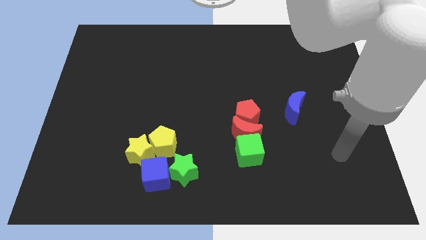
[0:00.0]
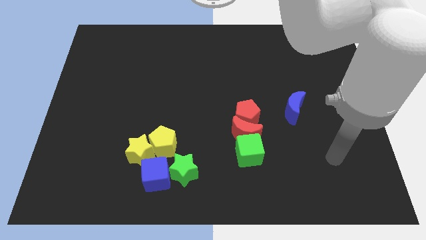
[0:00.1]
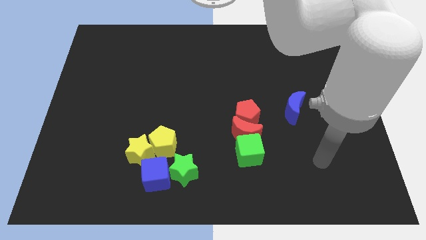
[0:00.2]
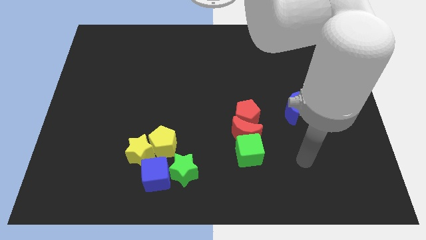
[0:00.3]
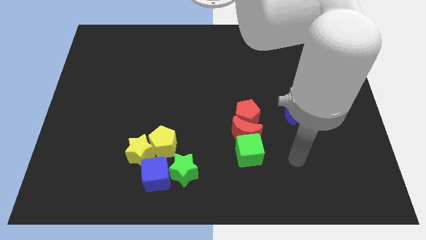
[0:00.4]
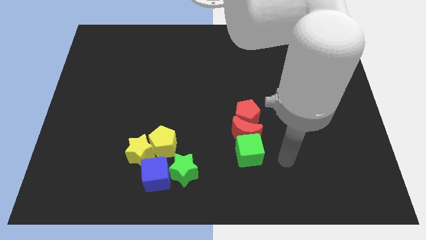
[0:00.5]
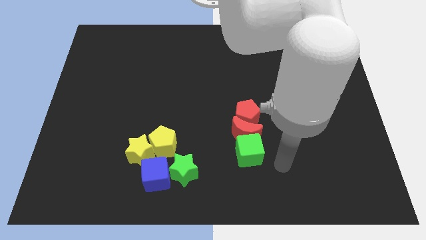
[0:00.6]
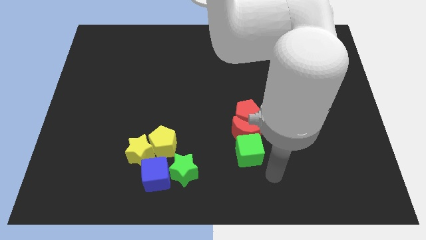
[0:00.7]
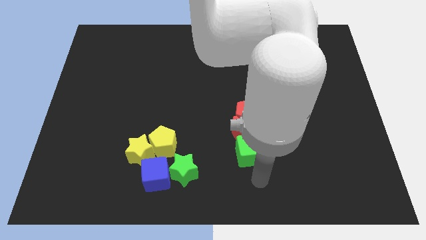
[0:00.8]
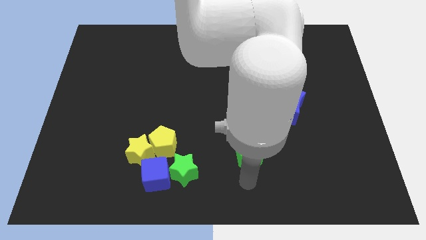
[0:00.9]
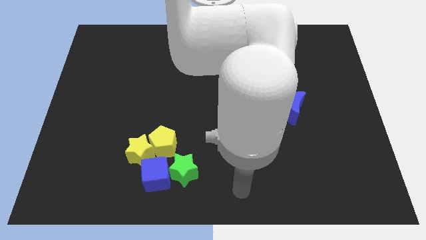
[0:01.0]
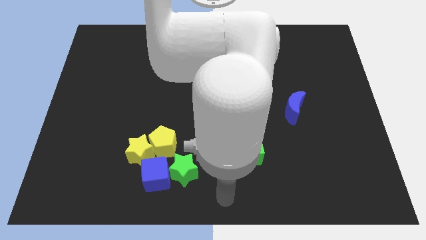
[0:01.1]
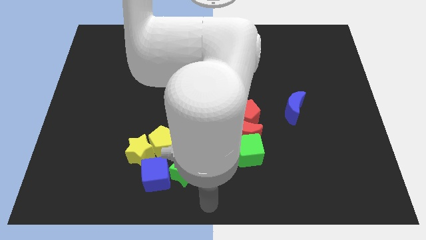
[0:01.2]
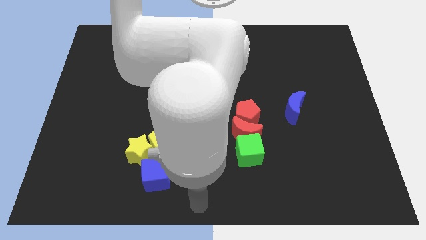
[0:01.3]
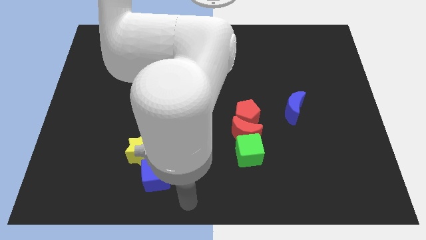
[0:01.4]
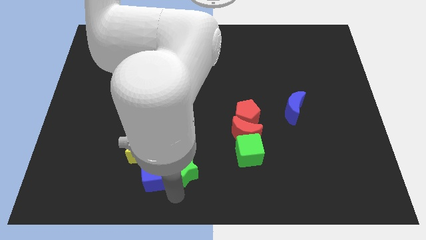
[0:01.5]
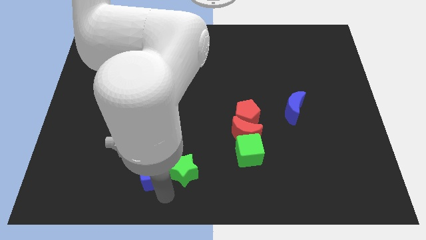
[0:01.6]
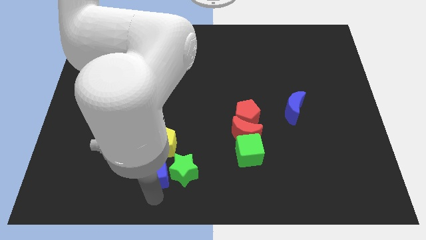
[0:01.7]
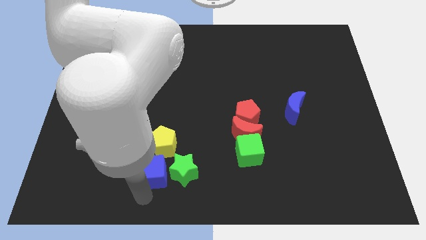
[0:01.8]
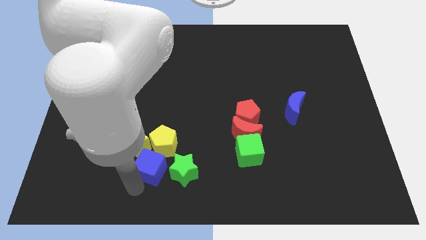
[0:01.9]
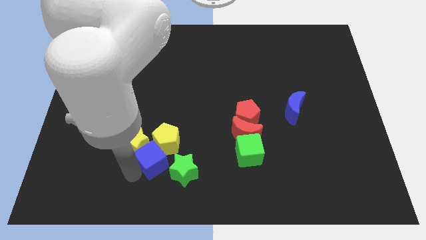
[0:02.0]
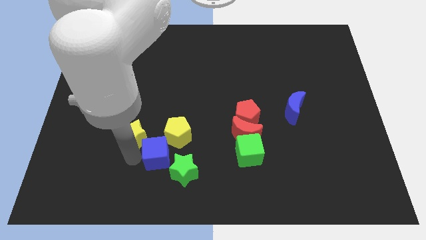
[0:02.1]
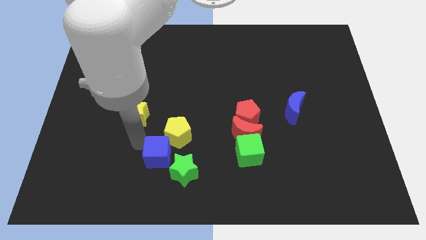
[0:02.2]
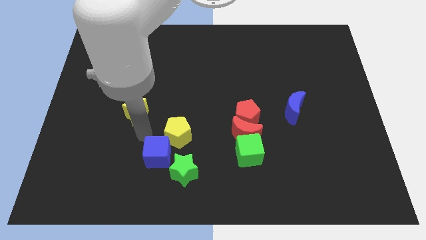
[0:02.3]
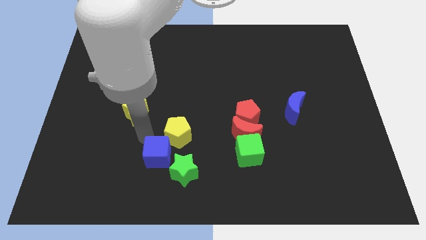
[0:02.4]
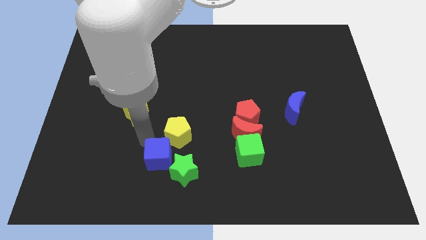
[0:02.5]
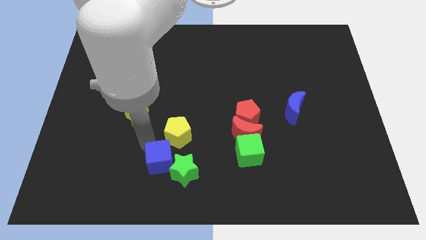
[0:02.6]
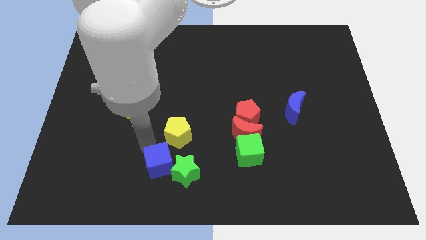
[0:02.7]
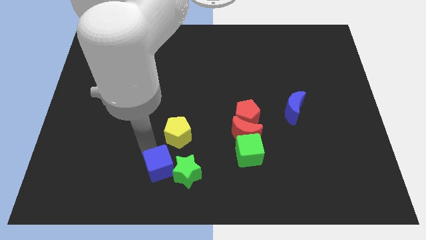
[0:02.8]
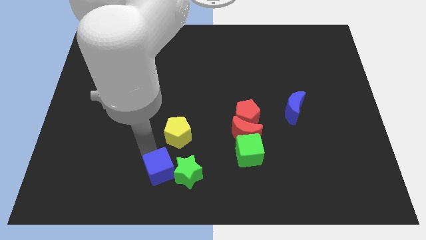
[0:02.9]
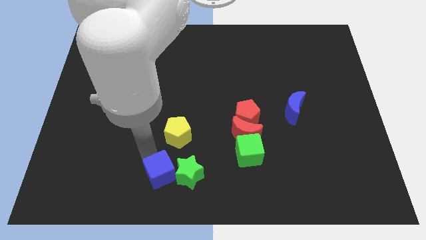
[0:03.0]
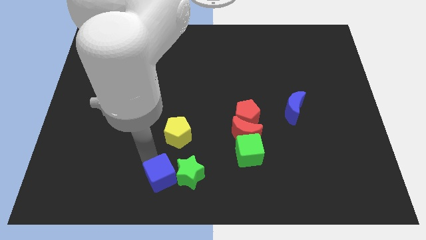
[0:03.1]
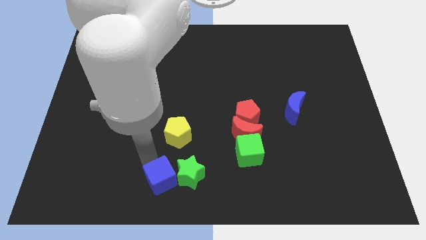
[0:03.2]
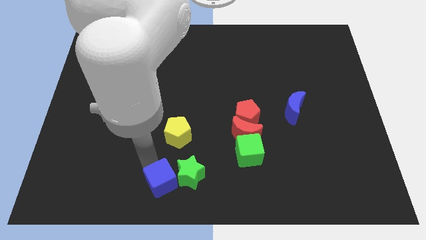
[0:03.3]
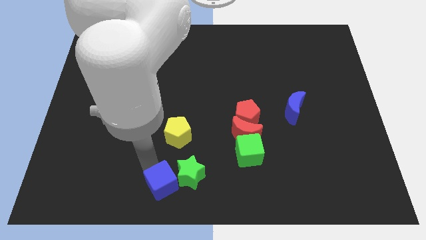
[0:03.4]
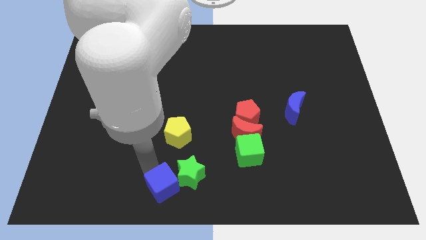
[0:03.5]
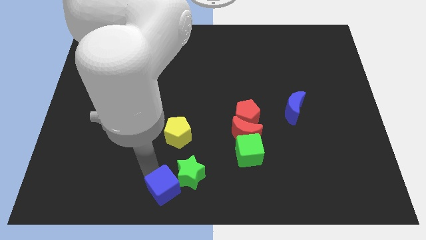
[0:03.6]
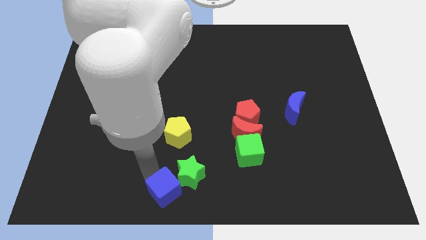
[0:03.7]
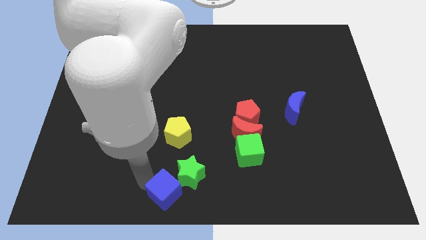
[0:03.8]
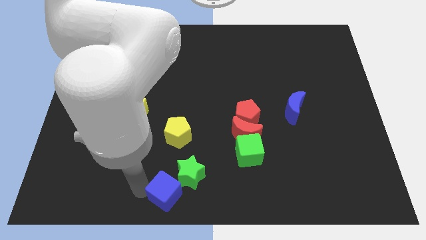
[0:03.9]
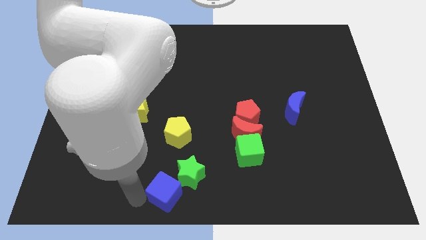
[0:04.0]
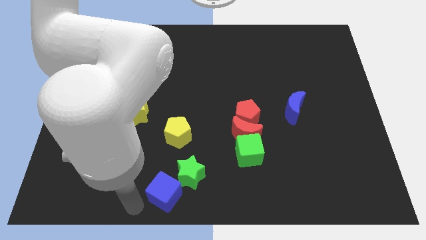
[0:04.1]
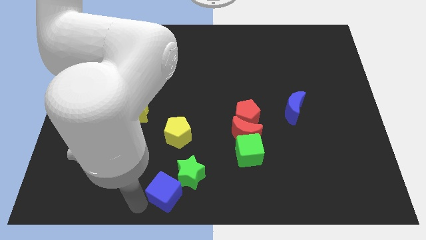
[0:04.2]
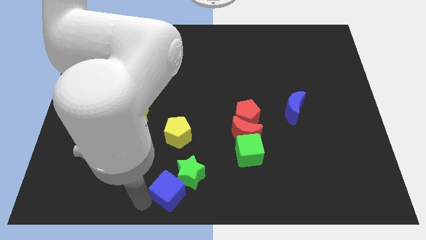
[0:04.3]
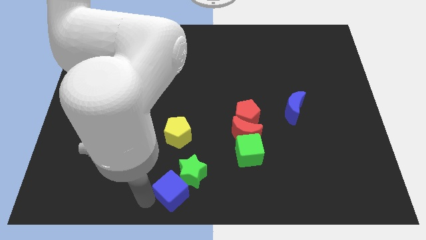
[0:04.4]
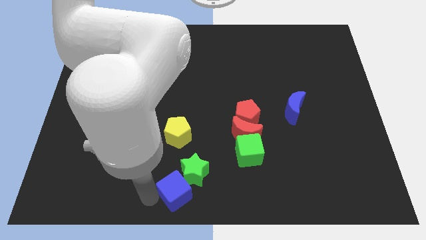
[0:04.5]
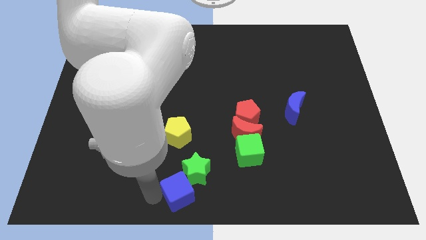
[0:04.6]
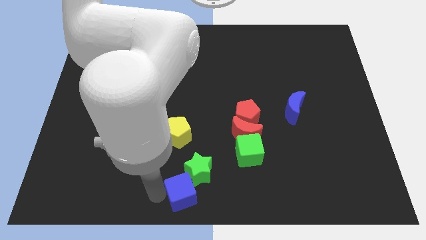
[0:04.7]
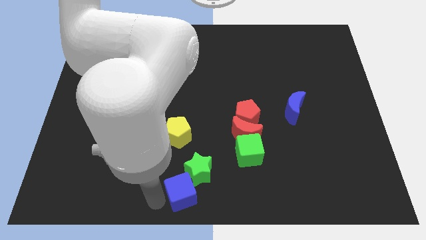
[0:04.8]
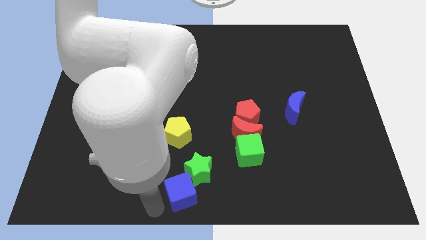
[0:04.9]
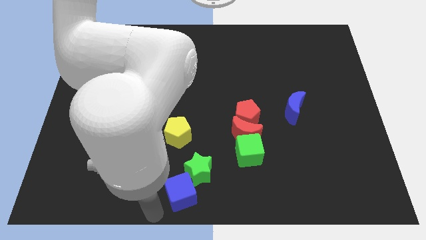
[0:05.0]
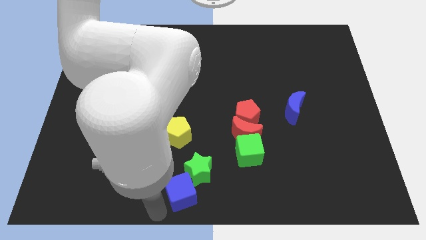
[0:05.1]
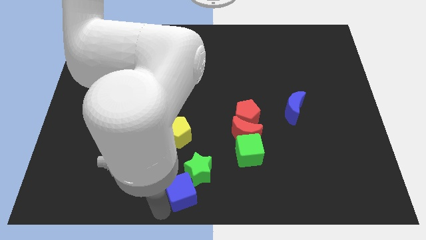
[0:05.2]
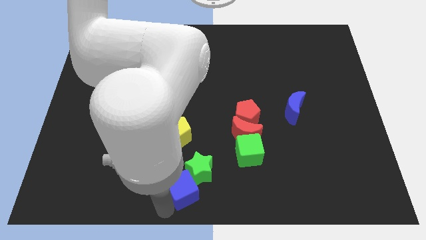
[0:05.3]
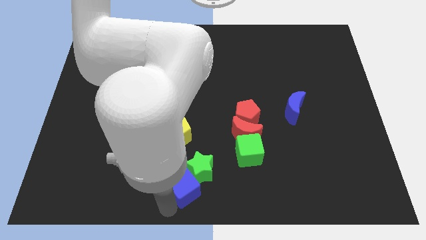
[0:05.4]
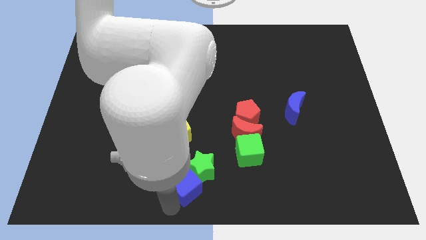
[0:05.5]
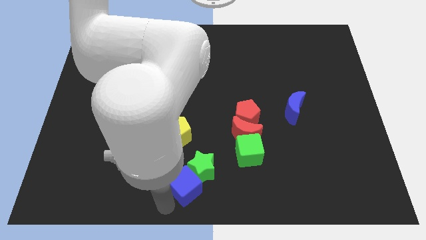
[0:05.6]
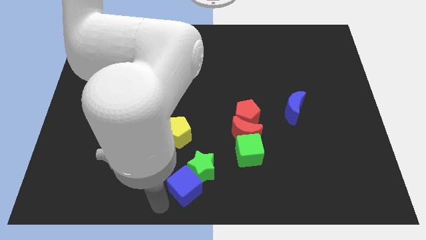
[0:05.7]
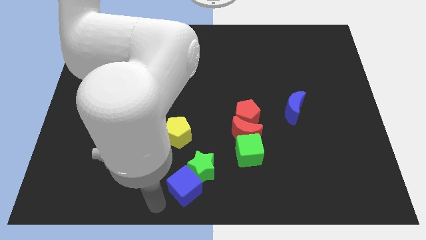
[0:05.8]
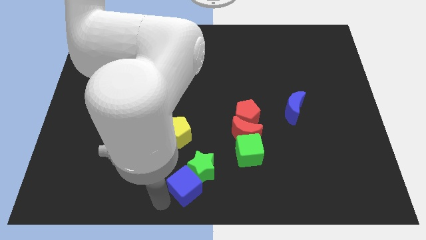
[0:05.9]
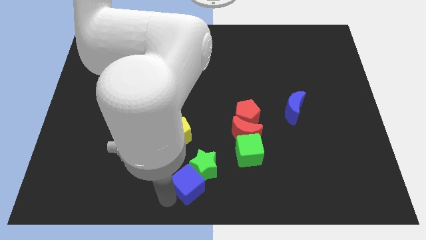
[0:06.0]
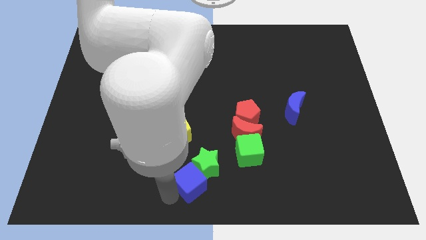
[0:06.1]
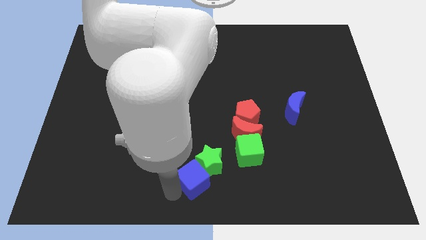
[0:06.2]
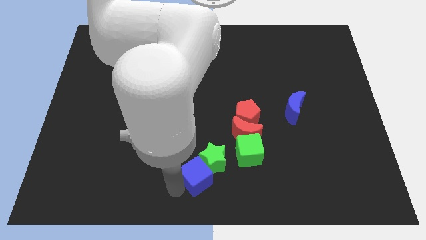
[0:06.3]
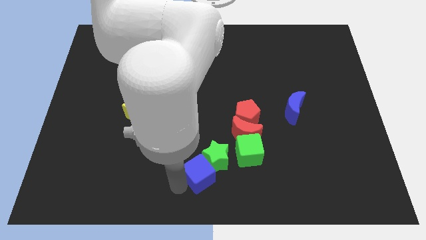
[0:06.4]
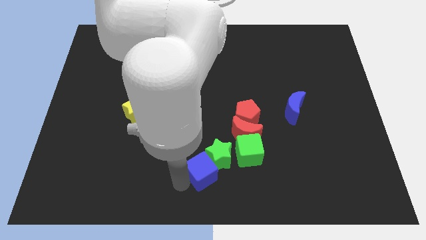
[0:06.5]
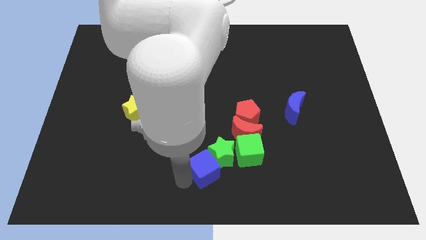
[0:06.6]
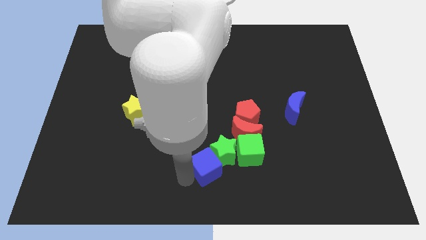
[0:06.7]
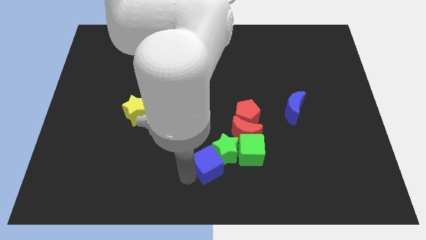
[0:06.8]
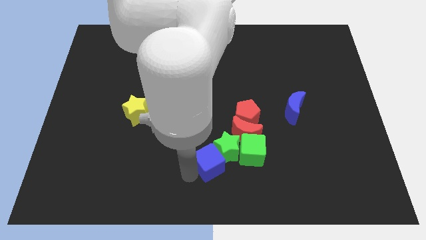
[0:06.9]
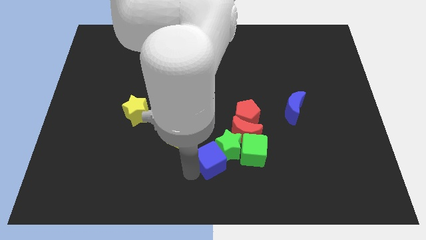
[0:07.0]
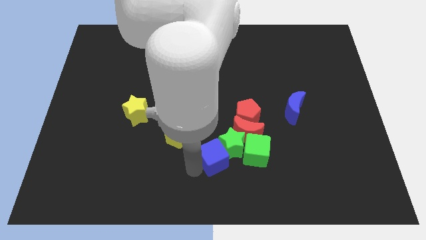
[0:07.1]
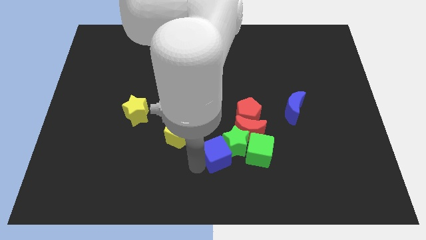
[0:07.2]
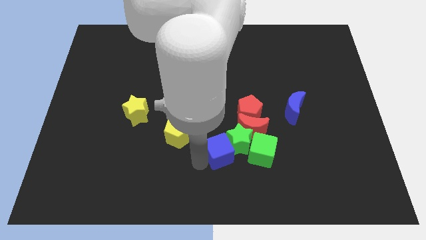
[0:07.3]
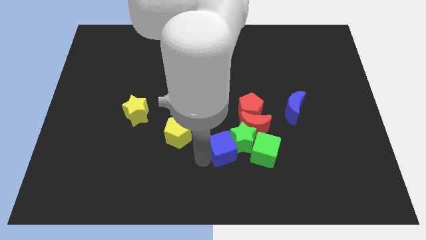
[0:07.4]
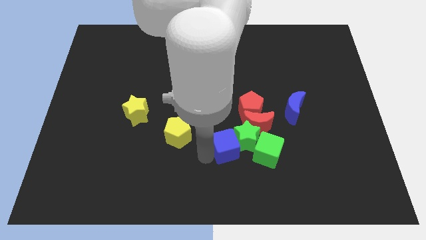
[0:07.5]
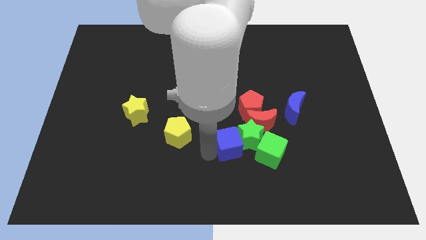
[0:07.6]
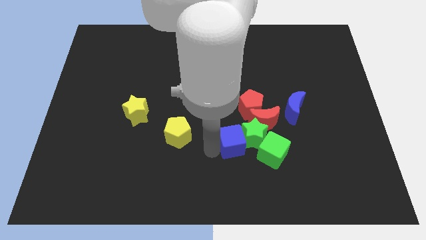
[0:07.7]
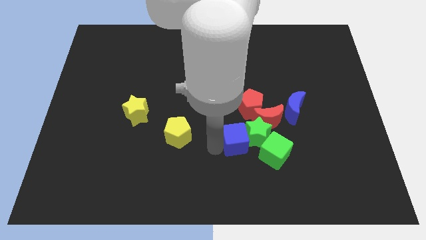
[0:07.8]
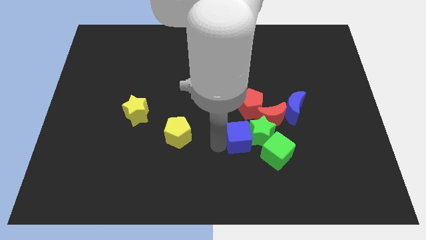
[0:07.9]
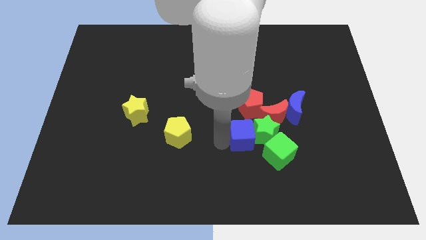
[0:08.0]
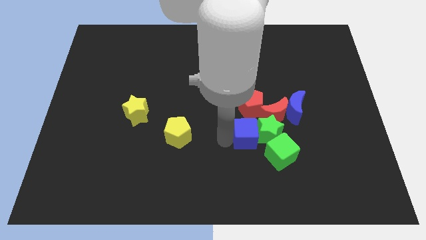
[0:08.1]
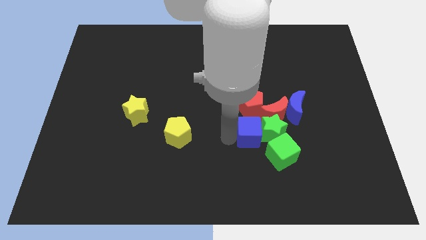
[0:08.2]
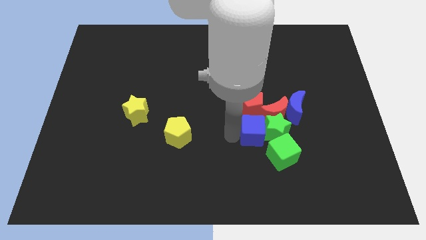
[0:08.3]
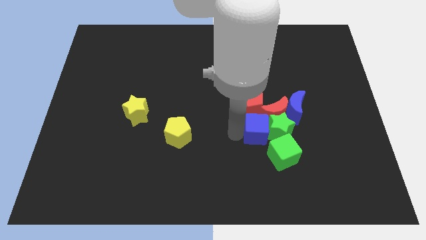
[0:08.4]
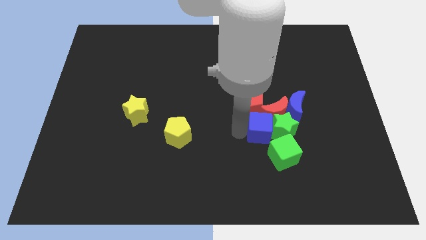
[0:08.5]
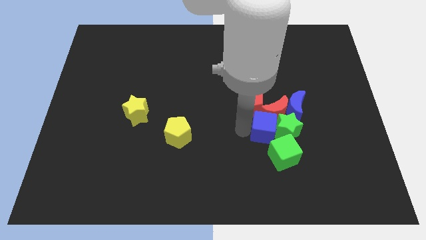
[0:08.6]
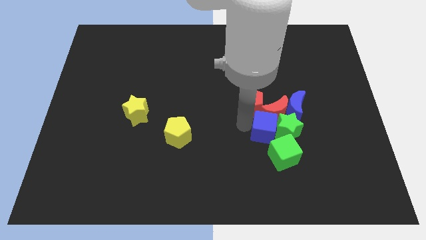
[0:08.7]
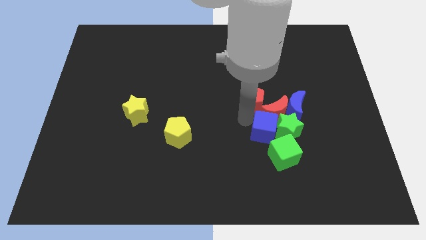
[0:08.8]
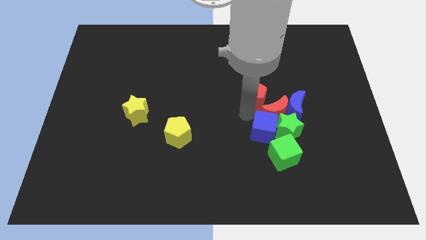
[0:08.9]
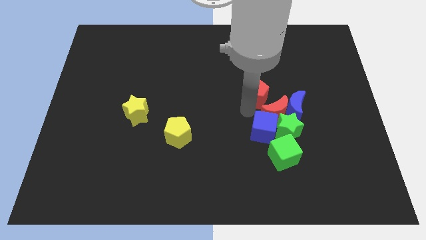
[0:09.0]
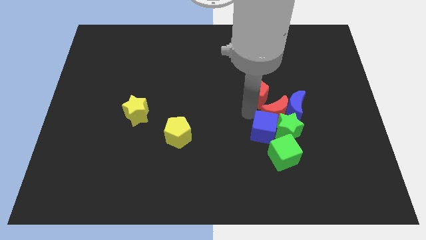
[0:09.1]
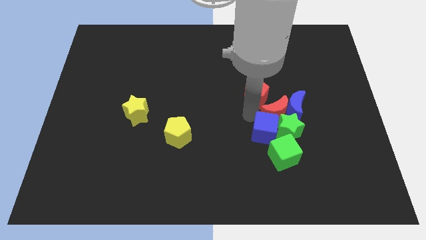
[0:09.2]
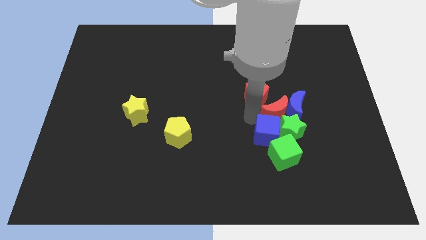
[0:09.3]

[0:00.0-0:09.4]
put the blue cube next to the green cube
